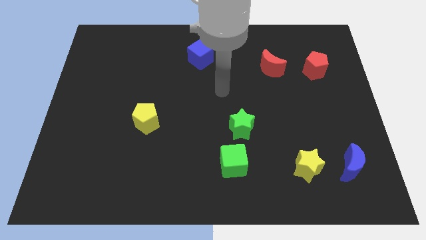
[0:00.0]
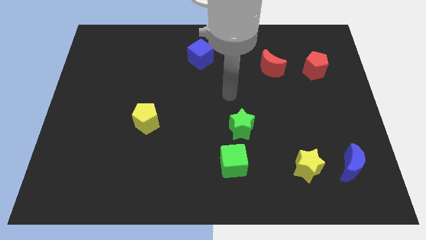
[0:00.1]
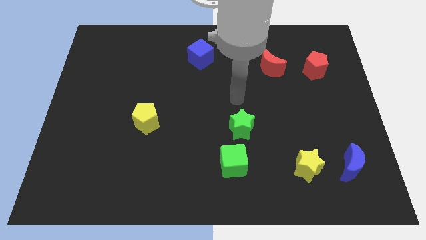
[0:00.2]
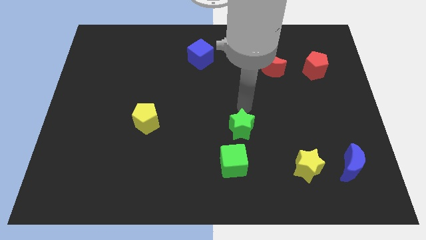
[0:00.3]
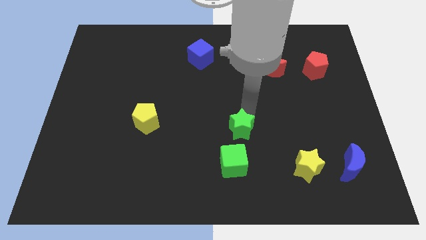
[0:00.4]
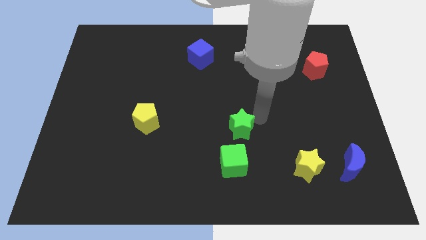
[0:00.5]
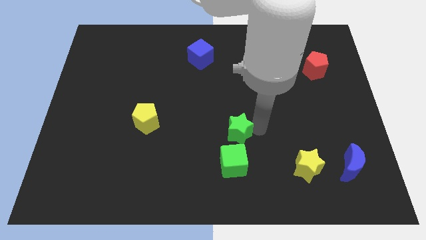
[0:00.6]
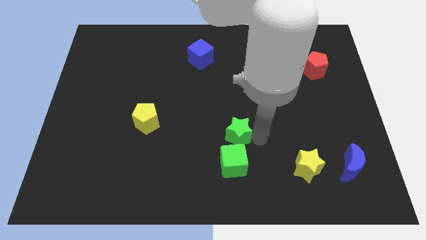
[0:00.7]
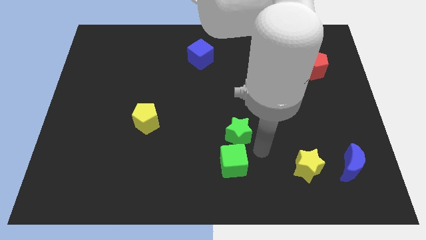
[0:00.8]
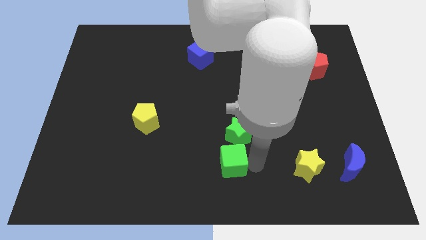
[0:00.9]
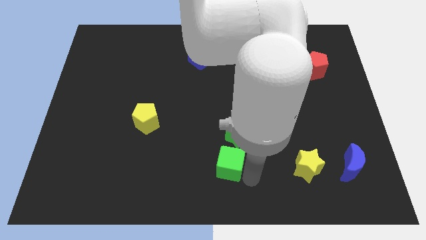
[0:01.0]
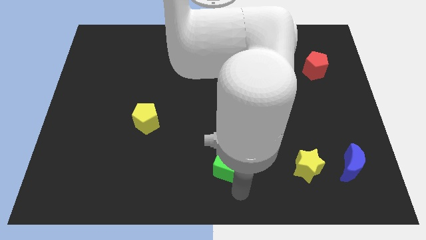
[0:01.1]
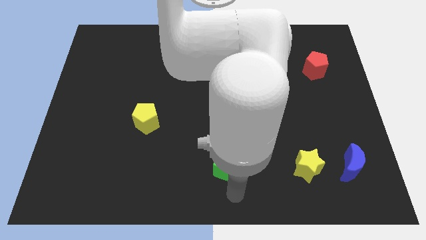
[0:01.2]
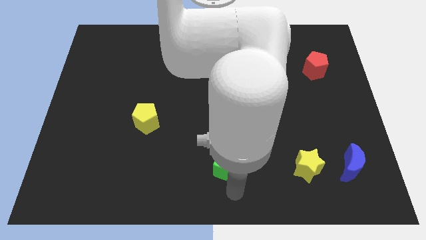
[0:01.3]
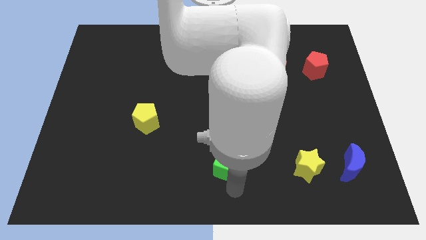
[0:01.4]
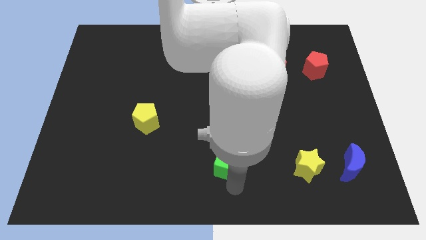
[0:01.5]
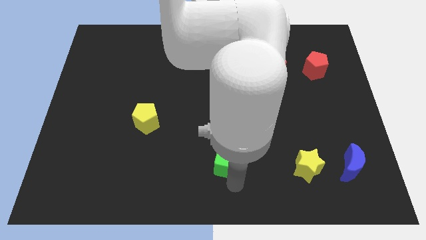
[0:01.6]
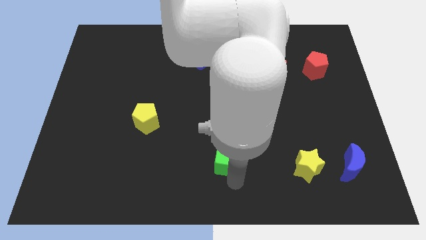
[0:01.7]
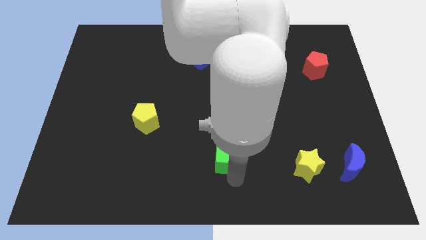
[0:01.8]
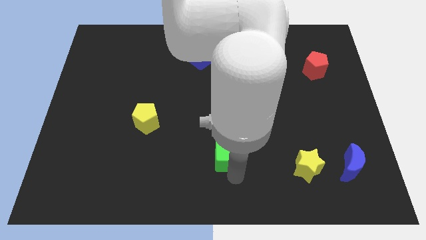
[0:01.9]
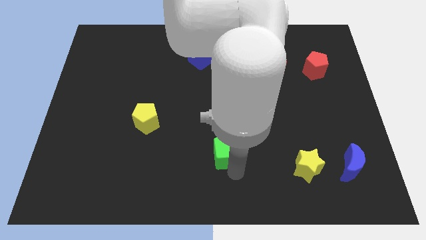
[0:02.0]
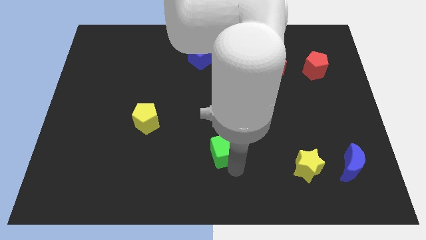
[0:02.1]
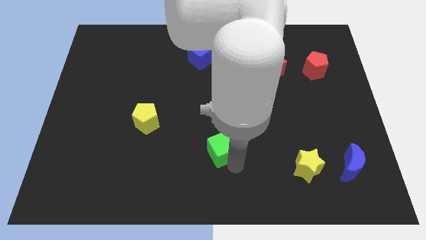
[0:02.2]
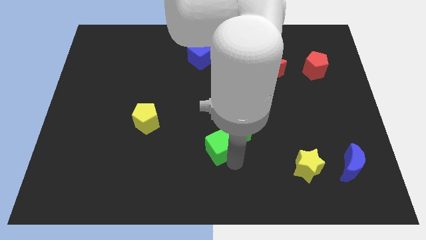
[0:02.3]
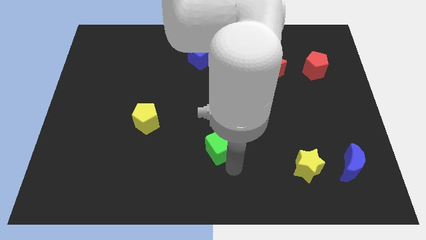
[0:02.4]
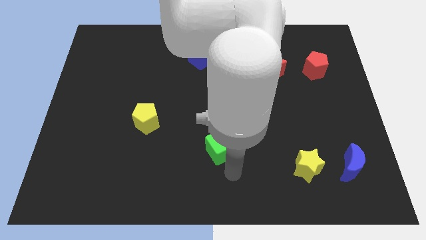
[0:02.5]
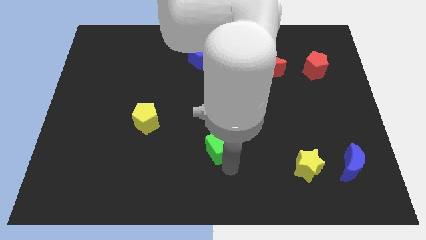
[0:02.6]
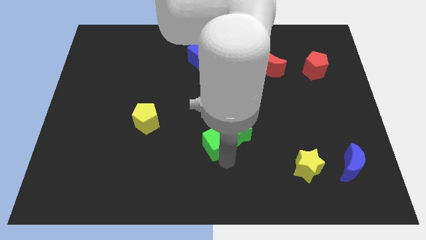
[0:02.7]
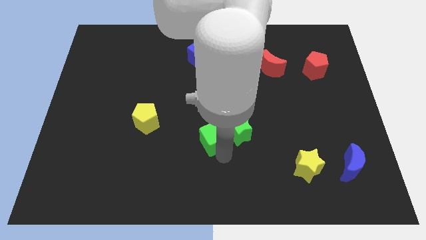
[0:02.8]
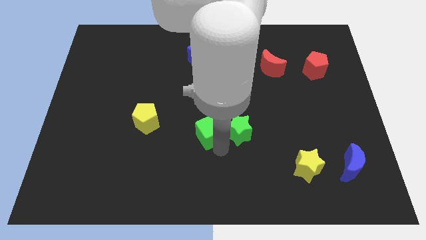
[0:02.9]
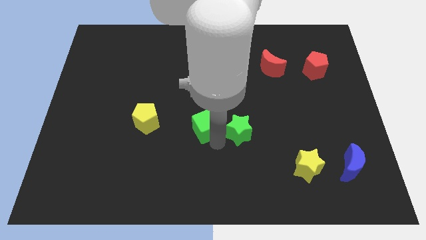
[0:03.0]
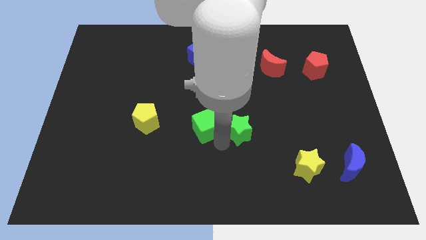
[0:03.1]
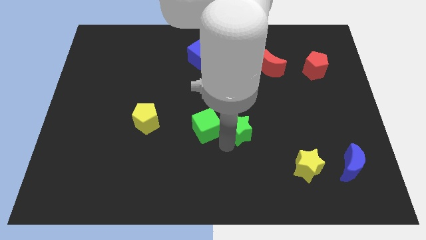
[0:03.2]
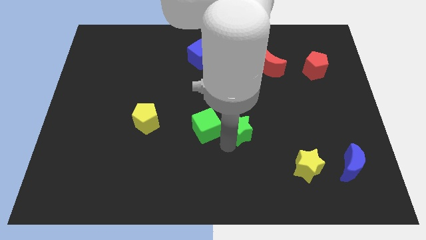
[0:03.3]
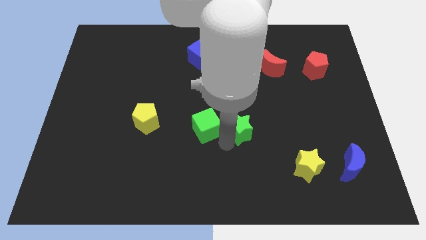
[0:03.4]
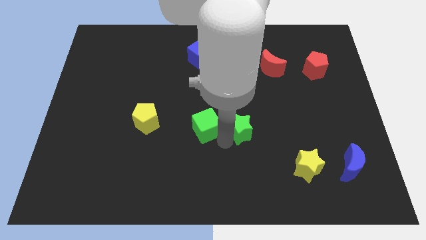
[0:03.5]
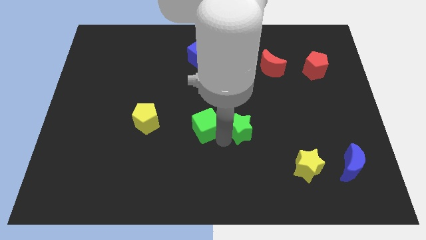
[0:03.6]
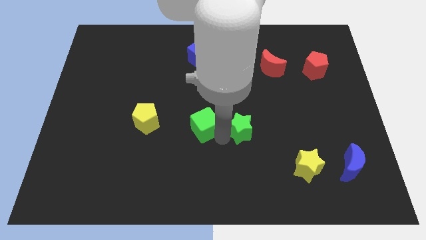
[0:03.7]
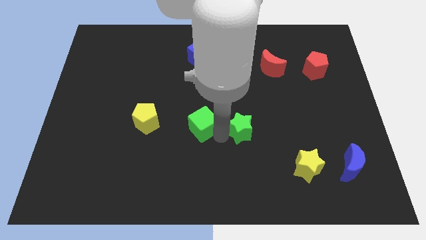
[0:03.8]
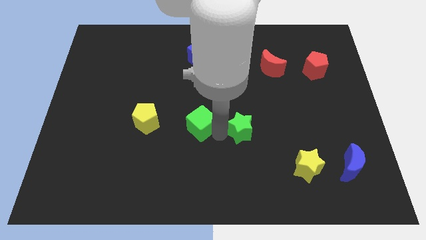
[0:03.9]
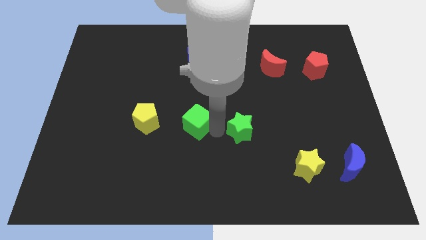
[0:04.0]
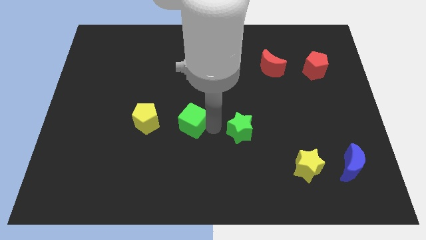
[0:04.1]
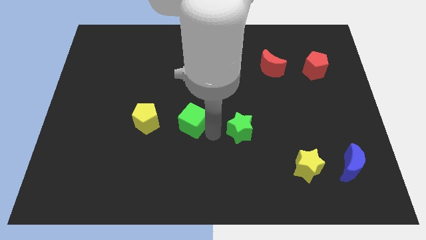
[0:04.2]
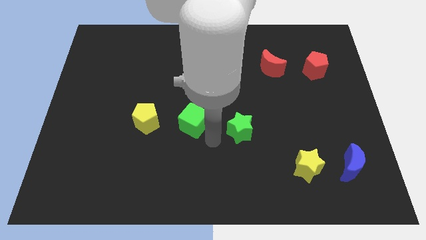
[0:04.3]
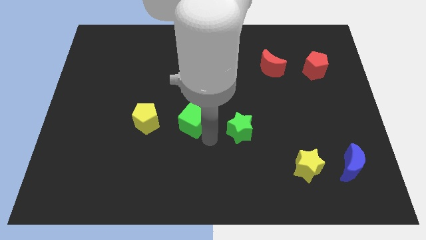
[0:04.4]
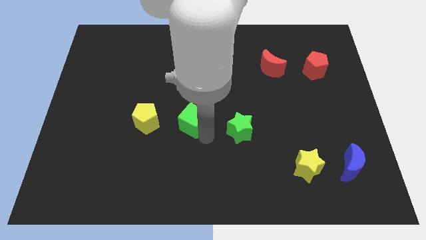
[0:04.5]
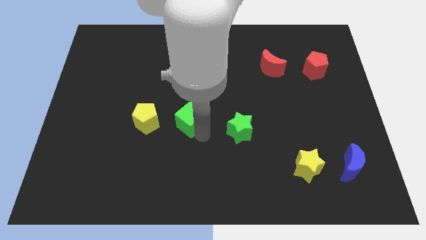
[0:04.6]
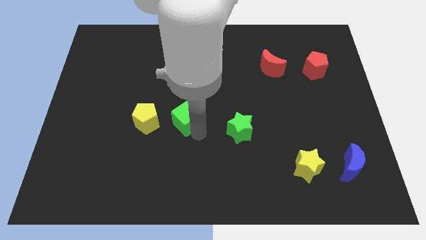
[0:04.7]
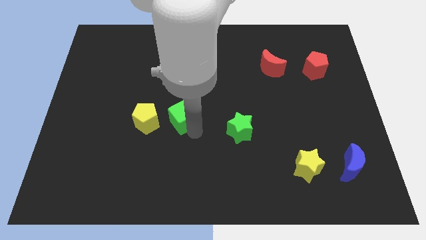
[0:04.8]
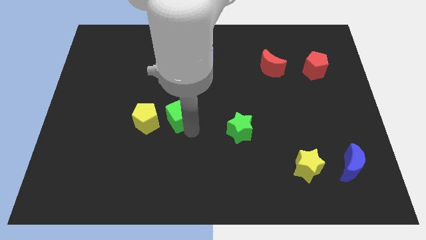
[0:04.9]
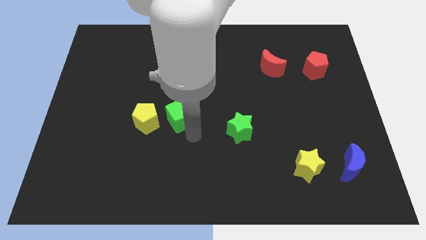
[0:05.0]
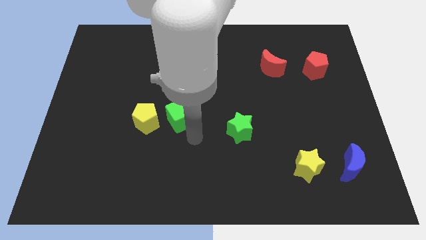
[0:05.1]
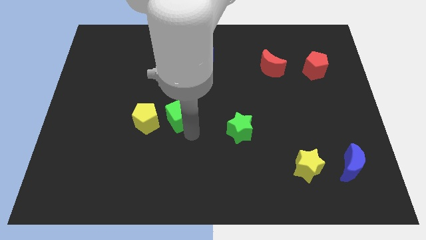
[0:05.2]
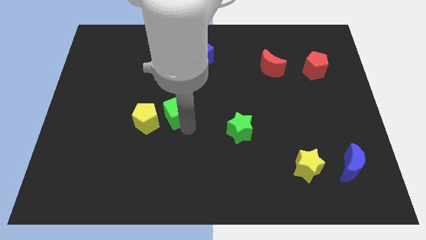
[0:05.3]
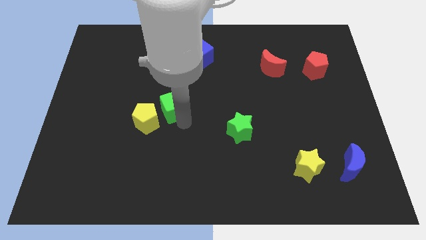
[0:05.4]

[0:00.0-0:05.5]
slide the green cube upwards and to the left diagonally

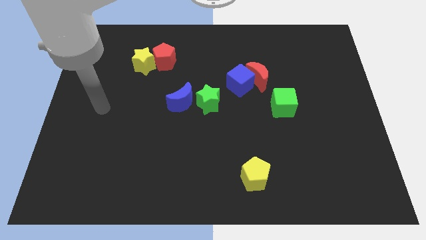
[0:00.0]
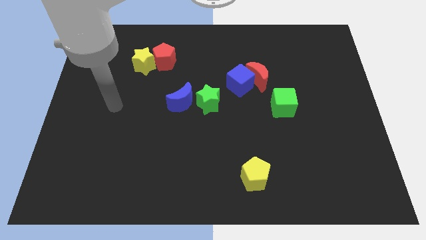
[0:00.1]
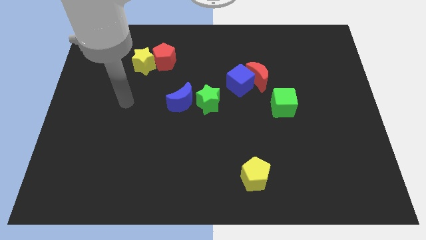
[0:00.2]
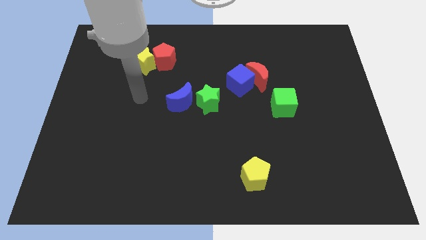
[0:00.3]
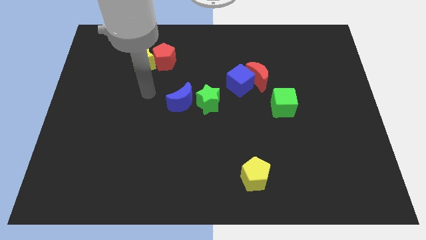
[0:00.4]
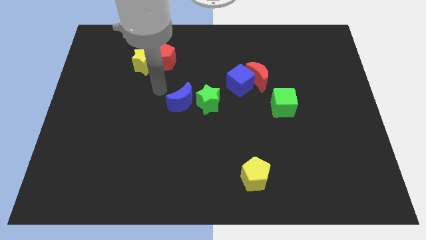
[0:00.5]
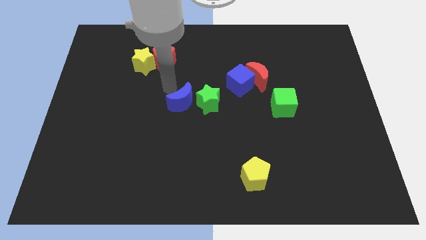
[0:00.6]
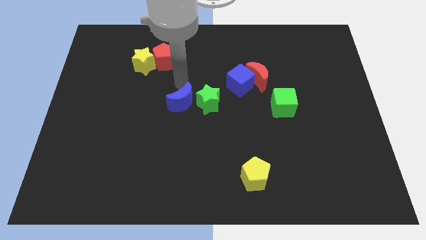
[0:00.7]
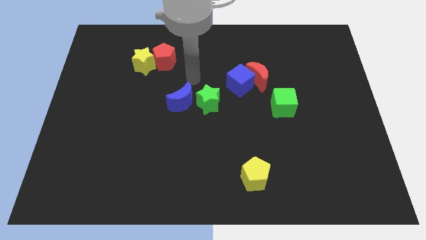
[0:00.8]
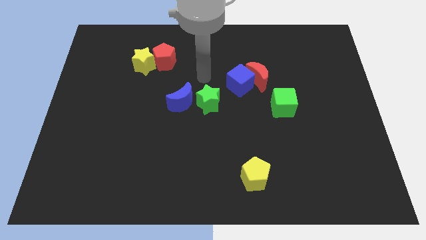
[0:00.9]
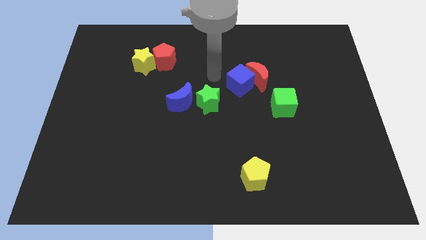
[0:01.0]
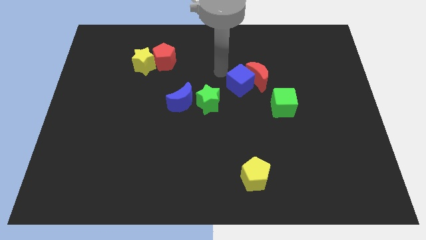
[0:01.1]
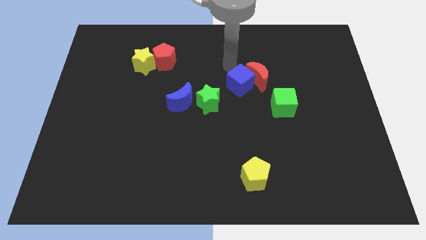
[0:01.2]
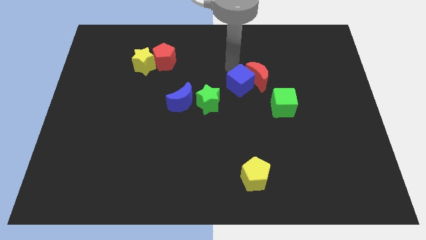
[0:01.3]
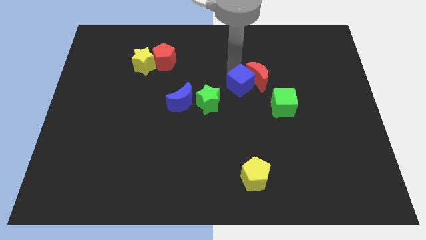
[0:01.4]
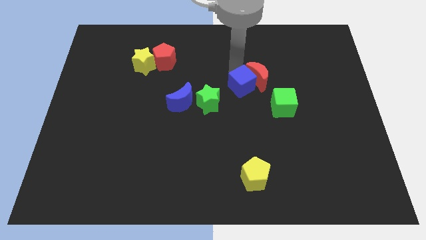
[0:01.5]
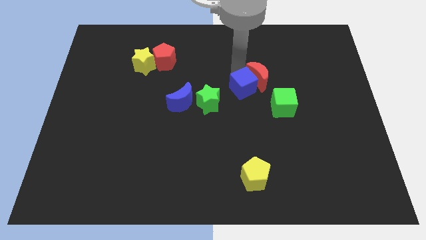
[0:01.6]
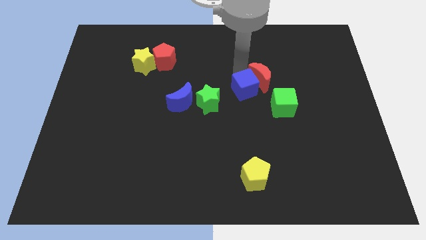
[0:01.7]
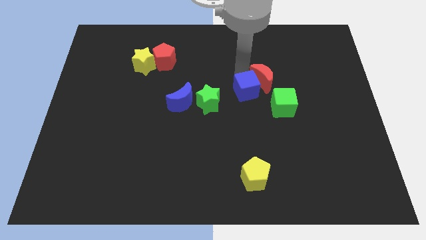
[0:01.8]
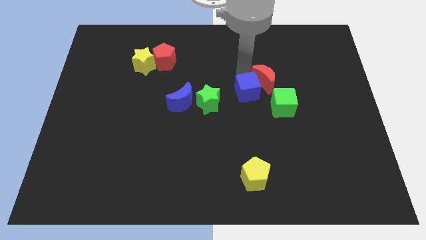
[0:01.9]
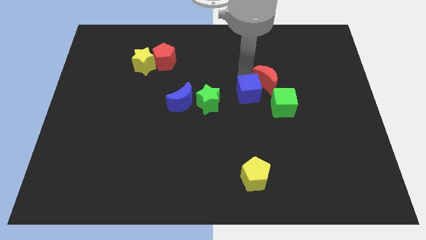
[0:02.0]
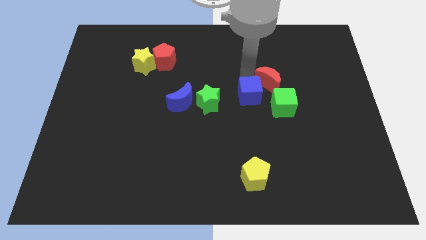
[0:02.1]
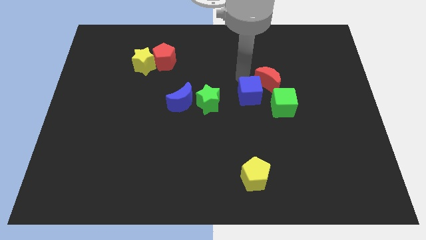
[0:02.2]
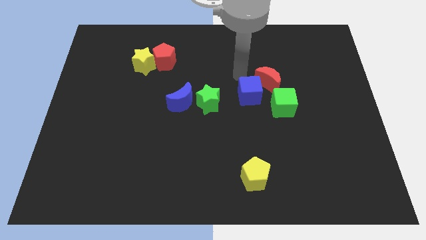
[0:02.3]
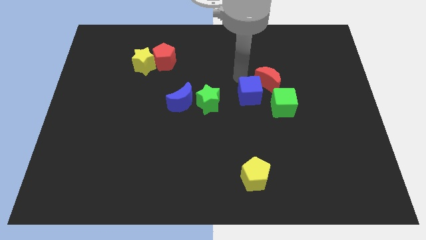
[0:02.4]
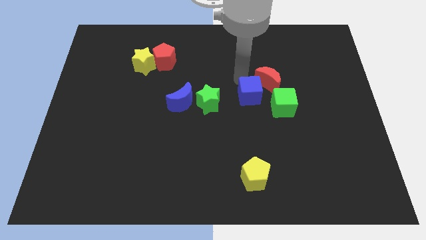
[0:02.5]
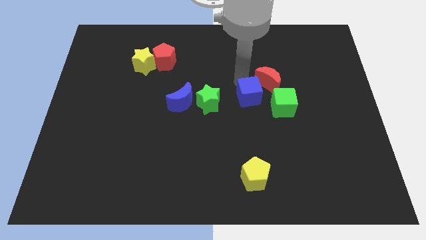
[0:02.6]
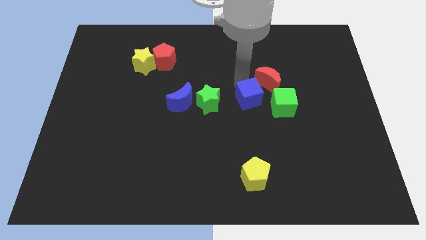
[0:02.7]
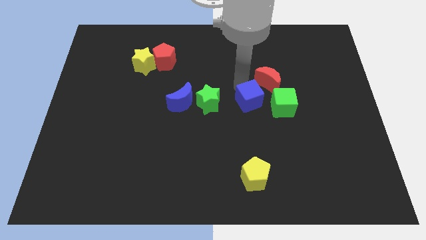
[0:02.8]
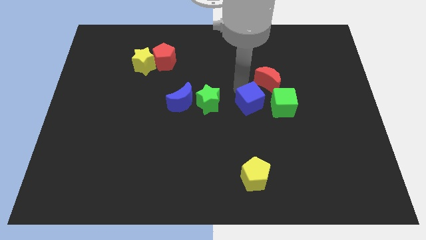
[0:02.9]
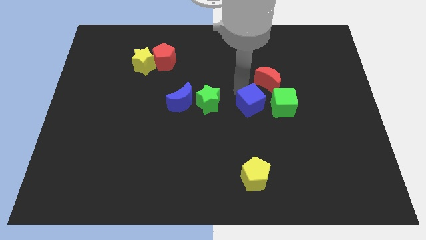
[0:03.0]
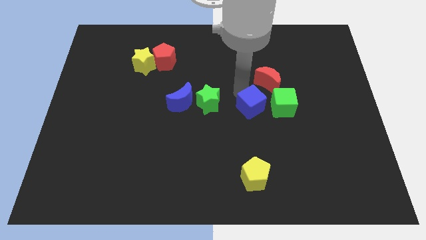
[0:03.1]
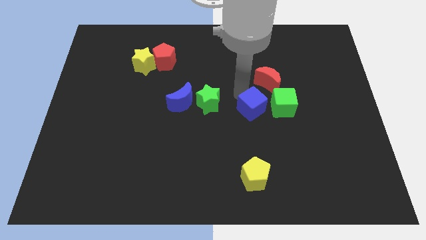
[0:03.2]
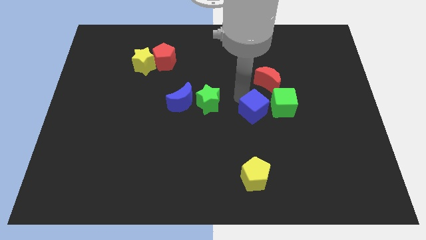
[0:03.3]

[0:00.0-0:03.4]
move the blue cube down and then right slightly
